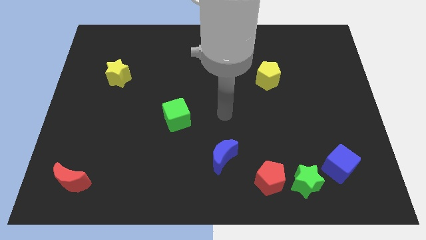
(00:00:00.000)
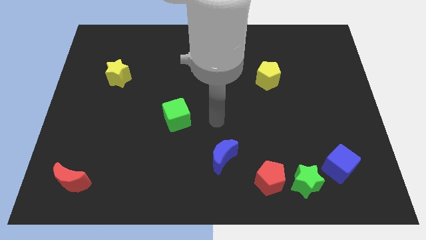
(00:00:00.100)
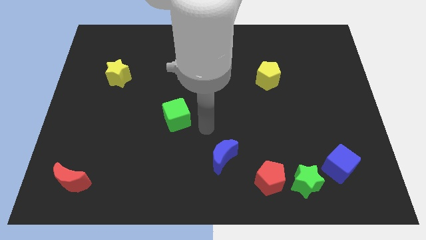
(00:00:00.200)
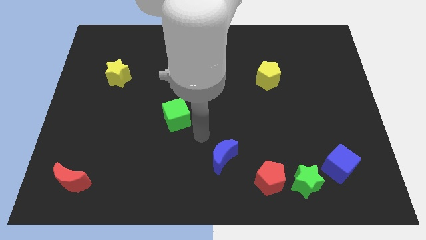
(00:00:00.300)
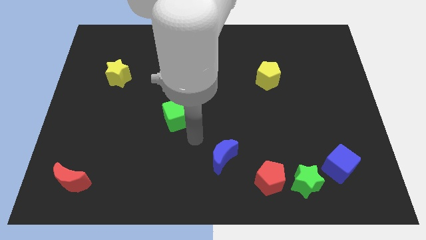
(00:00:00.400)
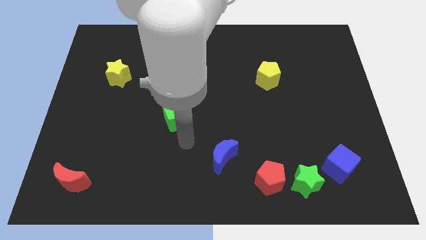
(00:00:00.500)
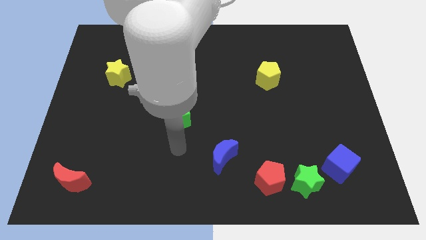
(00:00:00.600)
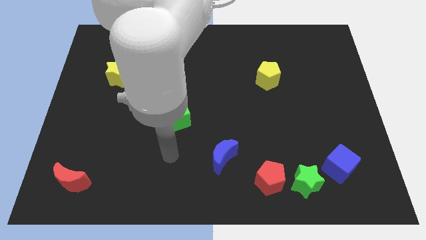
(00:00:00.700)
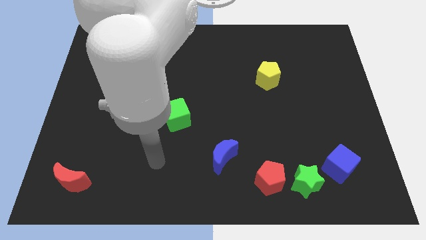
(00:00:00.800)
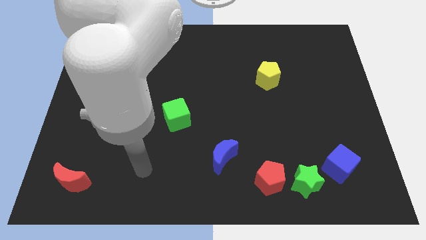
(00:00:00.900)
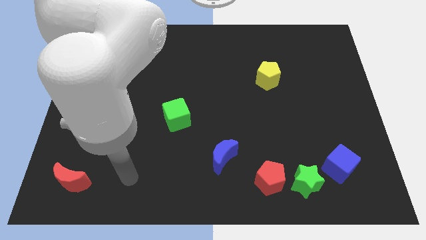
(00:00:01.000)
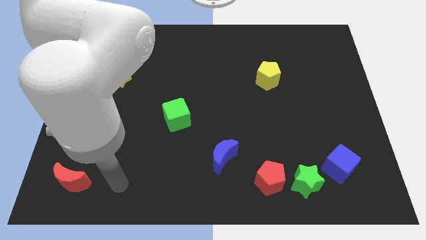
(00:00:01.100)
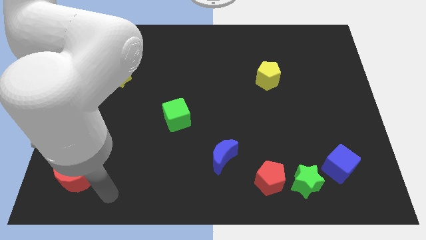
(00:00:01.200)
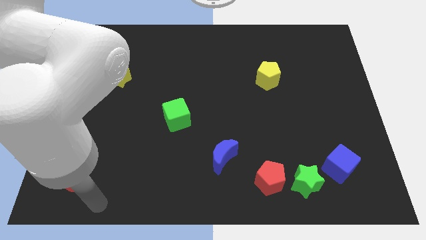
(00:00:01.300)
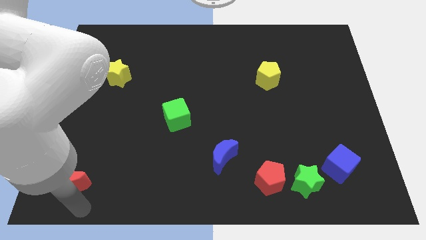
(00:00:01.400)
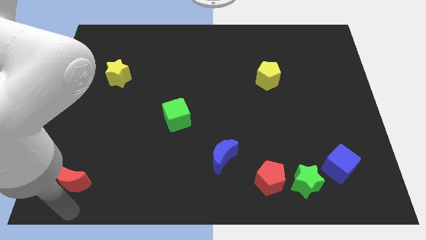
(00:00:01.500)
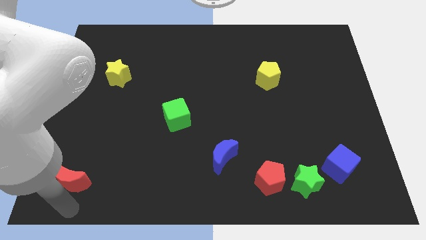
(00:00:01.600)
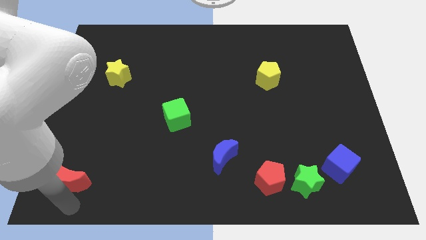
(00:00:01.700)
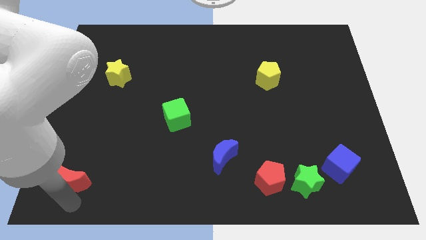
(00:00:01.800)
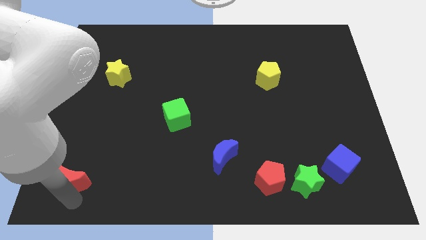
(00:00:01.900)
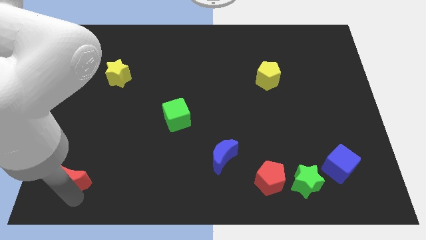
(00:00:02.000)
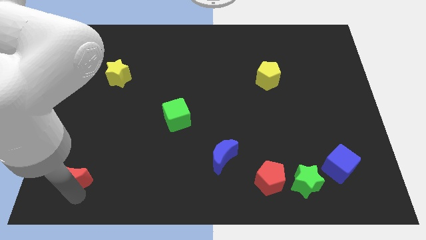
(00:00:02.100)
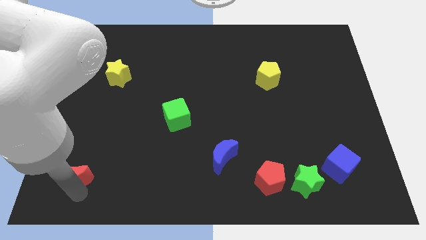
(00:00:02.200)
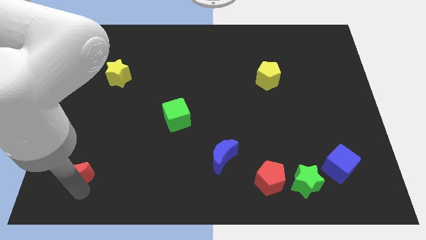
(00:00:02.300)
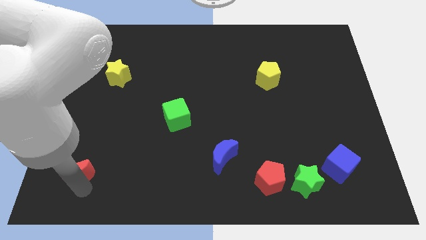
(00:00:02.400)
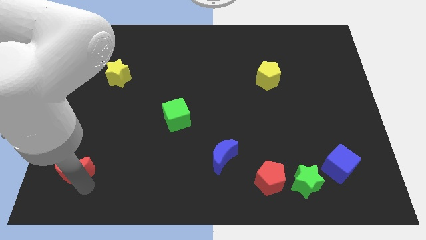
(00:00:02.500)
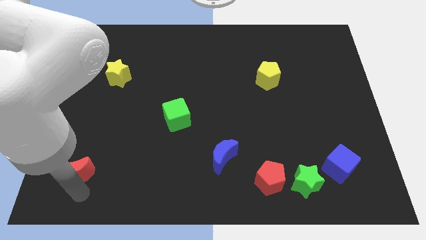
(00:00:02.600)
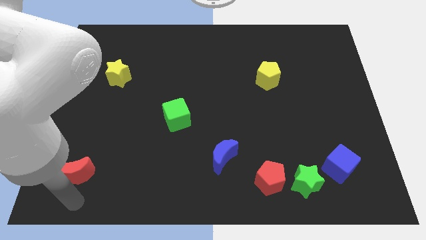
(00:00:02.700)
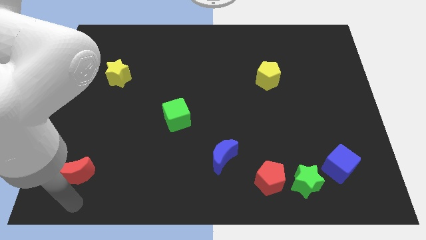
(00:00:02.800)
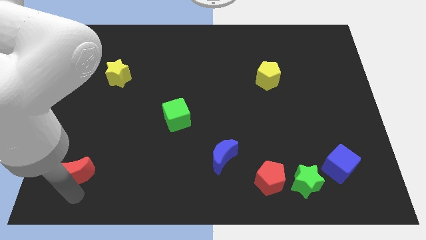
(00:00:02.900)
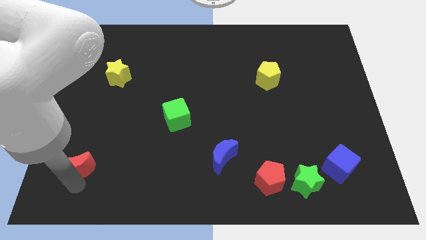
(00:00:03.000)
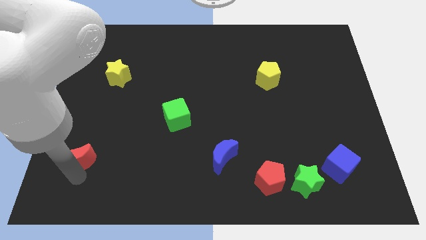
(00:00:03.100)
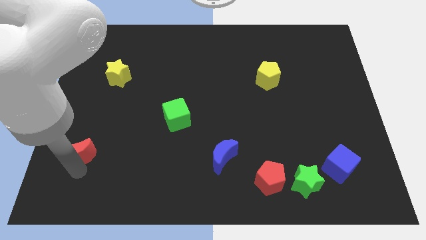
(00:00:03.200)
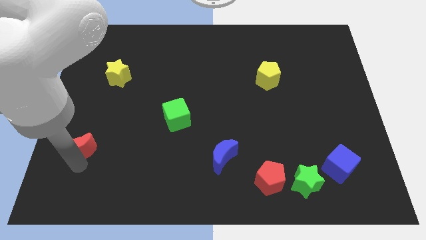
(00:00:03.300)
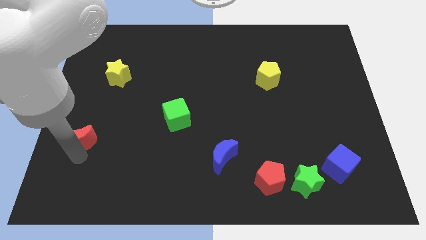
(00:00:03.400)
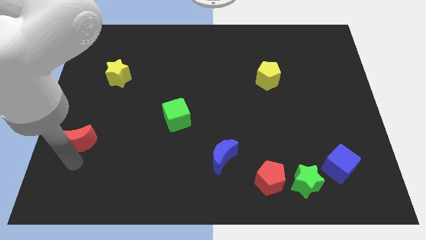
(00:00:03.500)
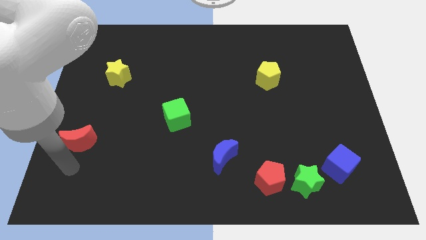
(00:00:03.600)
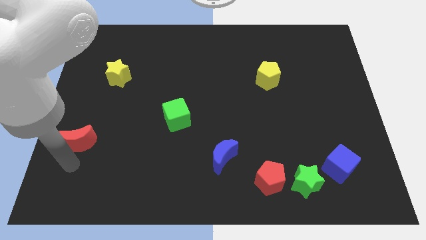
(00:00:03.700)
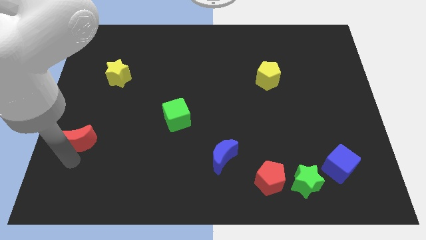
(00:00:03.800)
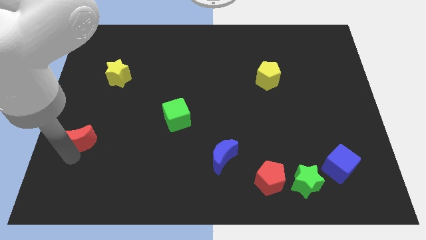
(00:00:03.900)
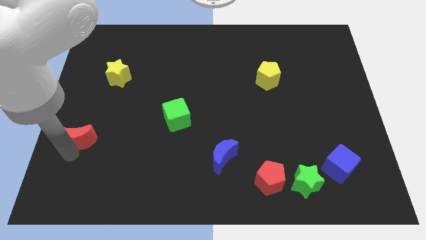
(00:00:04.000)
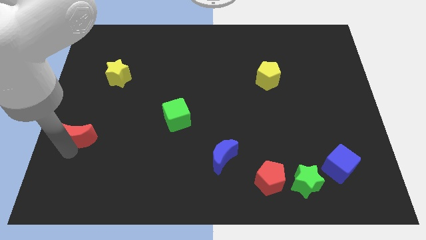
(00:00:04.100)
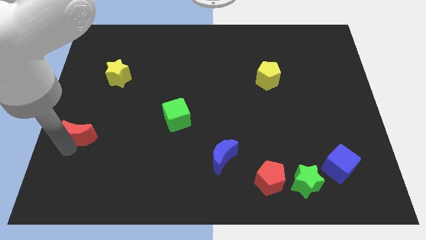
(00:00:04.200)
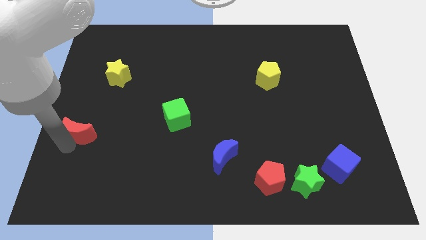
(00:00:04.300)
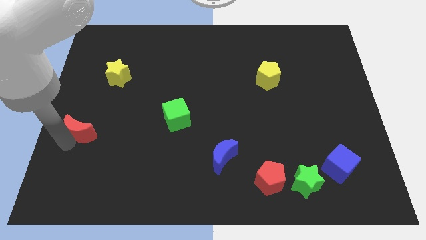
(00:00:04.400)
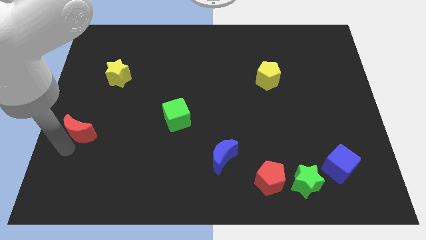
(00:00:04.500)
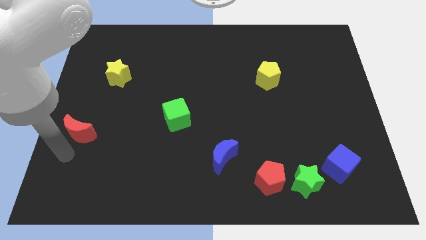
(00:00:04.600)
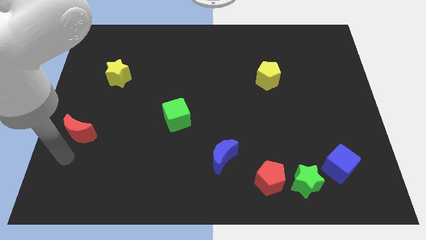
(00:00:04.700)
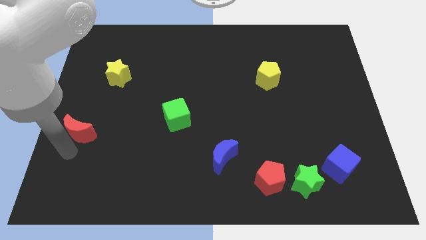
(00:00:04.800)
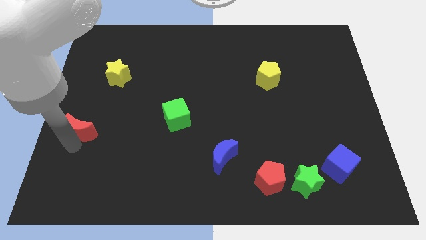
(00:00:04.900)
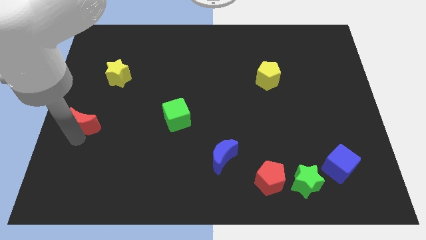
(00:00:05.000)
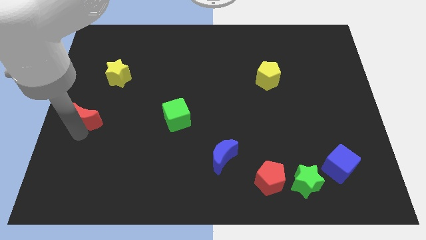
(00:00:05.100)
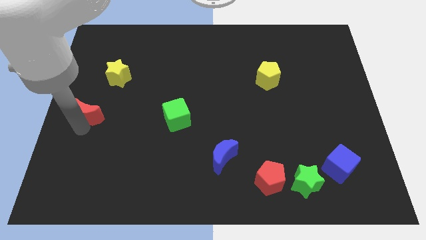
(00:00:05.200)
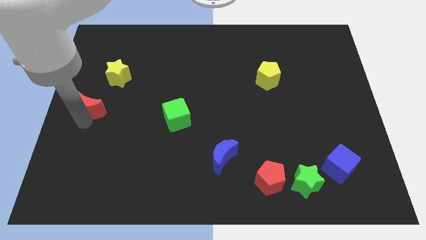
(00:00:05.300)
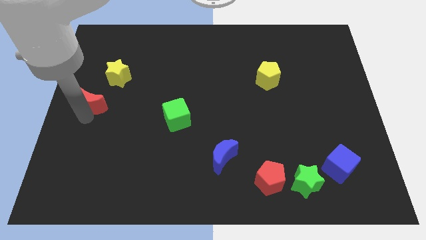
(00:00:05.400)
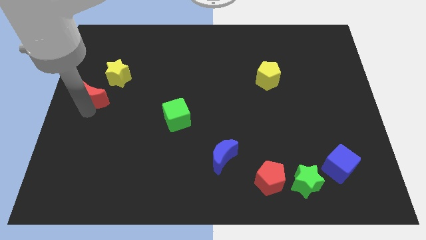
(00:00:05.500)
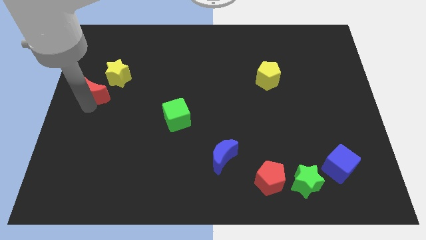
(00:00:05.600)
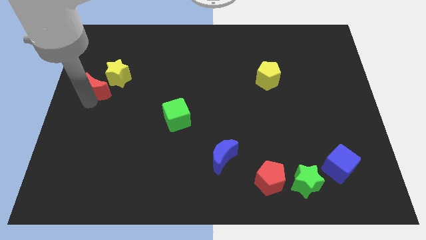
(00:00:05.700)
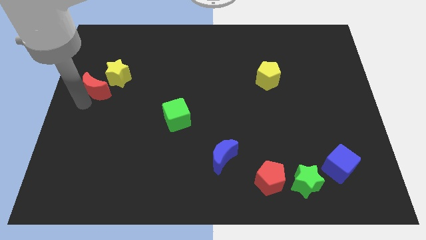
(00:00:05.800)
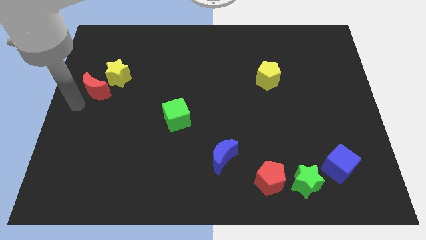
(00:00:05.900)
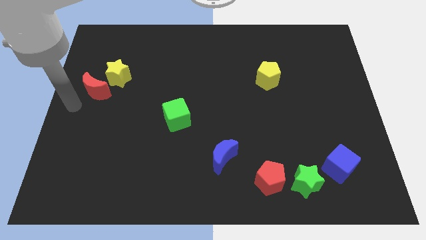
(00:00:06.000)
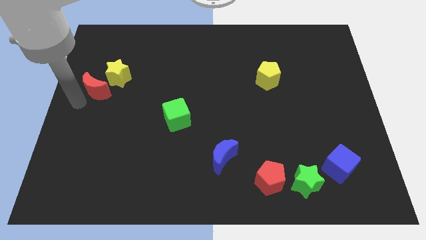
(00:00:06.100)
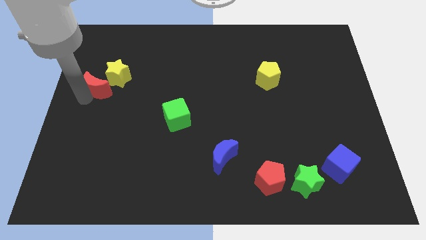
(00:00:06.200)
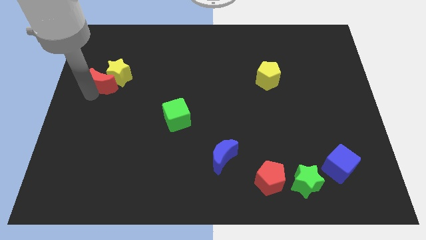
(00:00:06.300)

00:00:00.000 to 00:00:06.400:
push the red moon towards the yellow star
